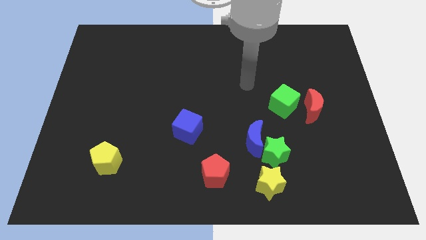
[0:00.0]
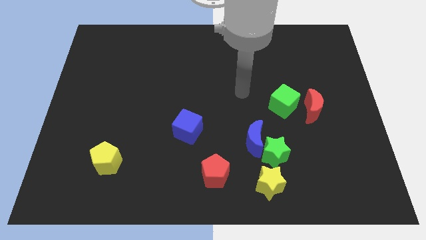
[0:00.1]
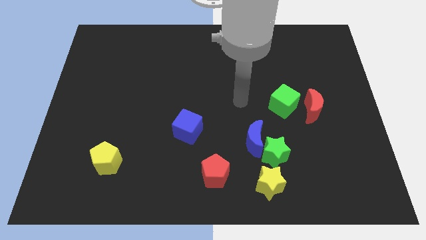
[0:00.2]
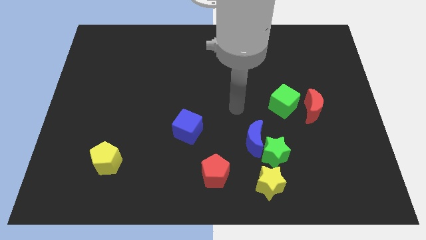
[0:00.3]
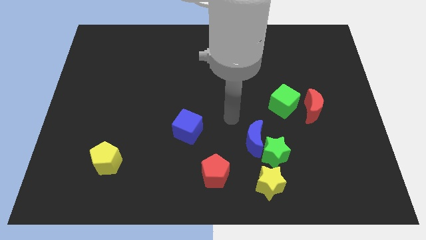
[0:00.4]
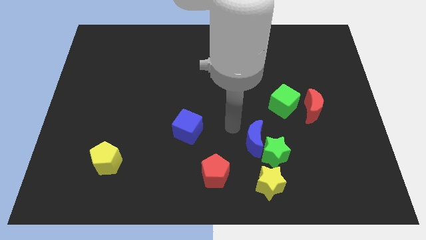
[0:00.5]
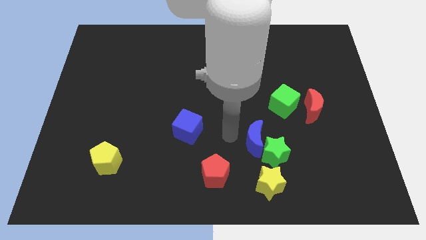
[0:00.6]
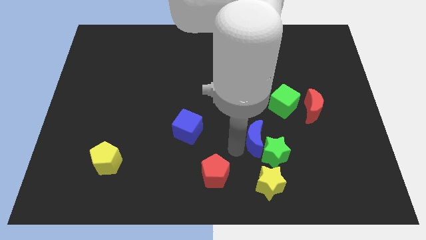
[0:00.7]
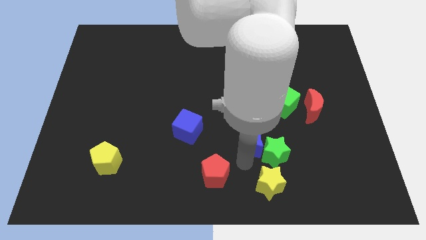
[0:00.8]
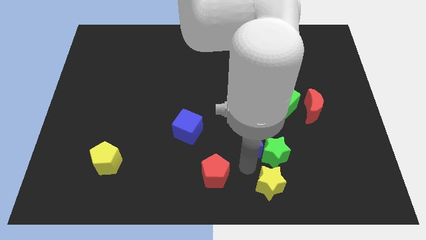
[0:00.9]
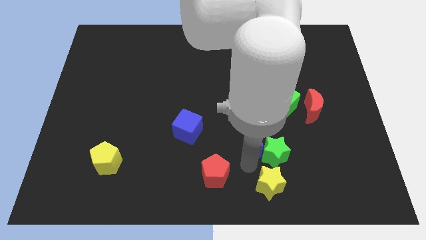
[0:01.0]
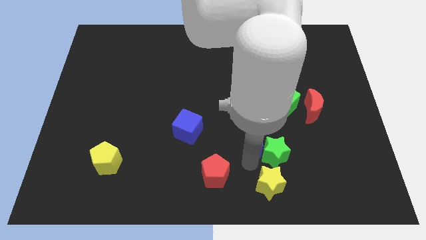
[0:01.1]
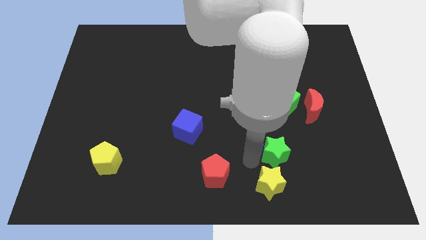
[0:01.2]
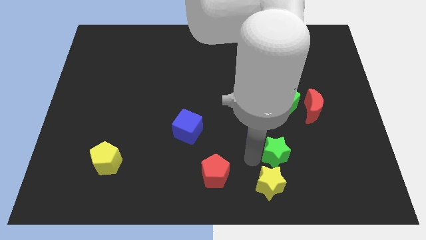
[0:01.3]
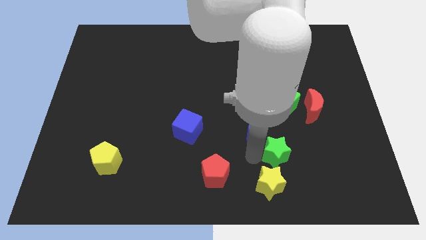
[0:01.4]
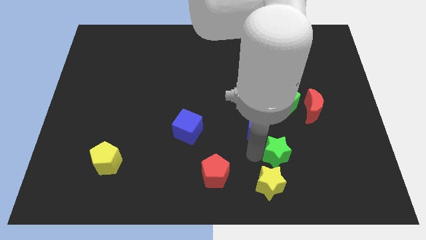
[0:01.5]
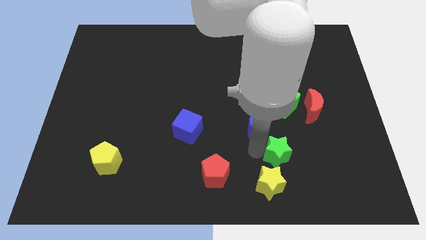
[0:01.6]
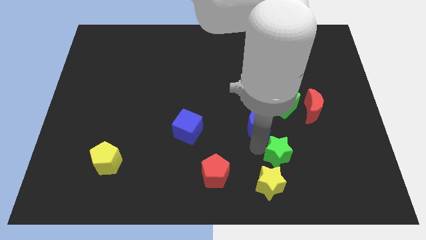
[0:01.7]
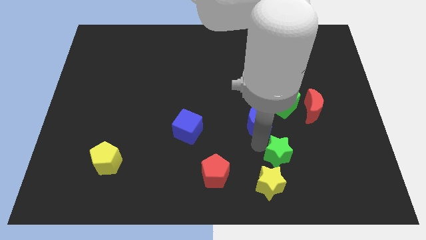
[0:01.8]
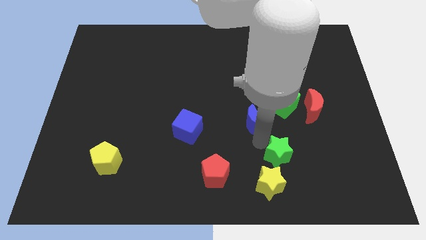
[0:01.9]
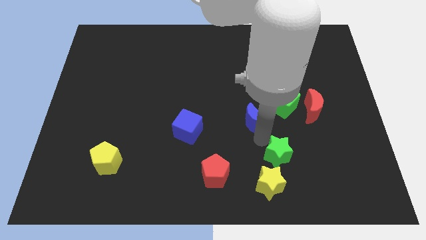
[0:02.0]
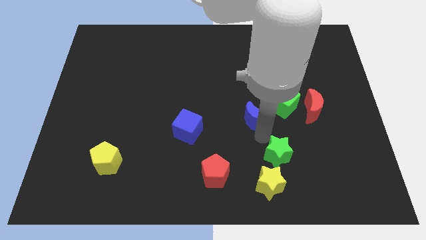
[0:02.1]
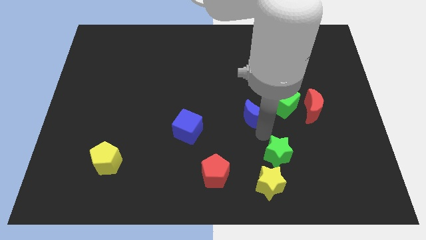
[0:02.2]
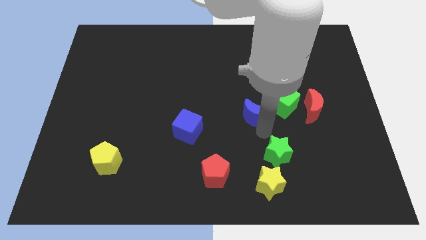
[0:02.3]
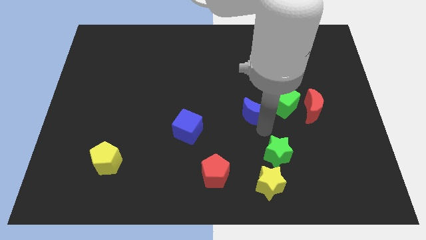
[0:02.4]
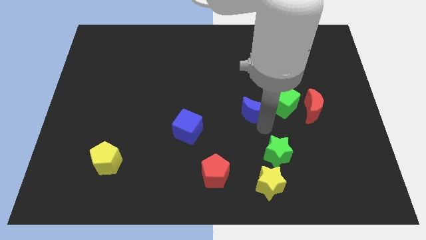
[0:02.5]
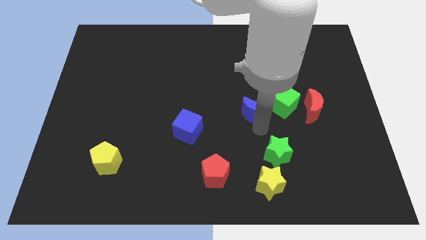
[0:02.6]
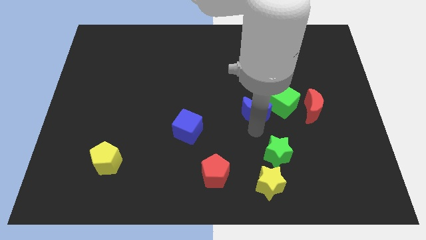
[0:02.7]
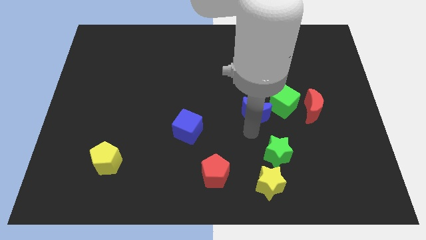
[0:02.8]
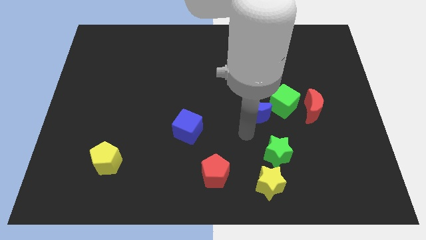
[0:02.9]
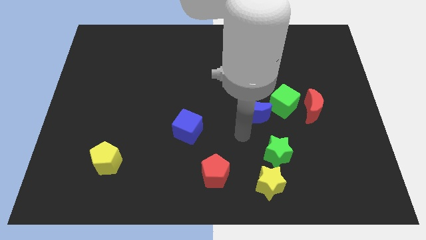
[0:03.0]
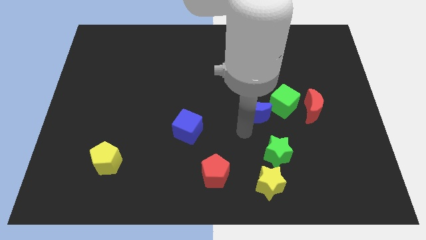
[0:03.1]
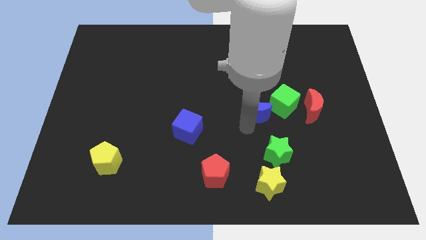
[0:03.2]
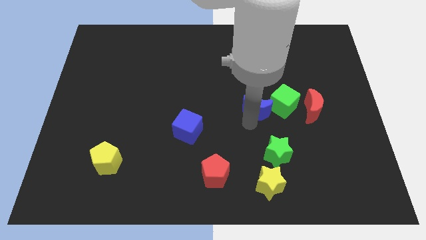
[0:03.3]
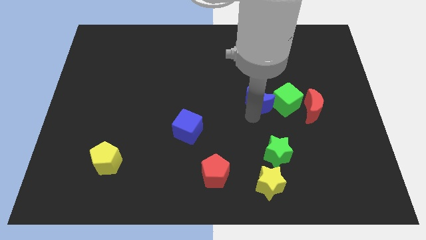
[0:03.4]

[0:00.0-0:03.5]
move the blue moon somewhat diagonally upwards and to the right

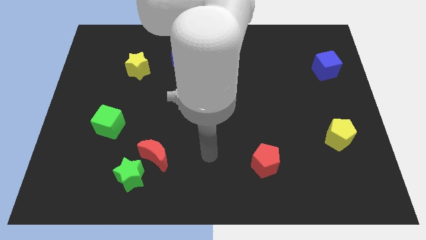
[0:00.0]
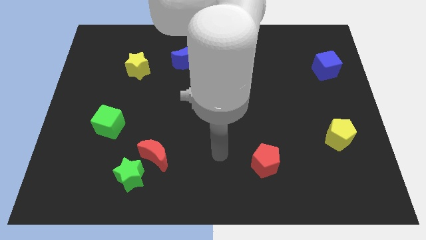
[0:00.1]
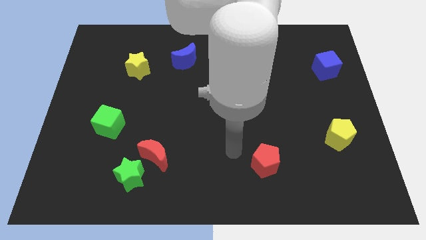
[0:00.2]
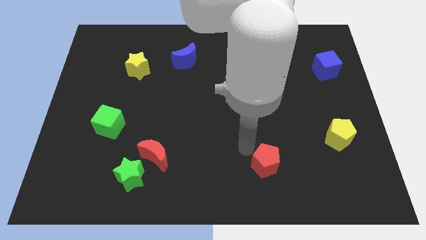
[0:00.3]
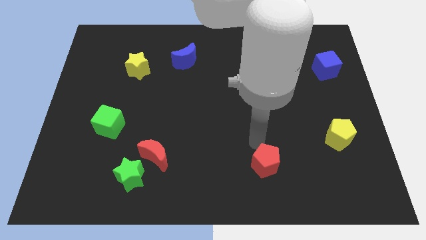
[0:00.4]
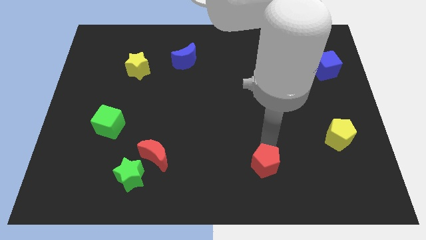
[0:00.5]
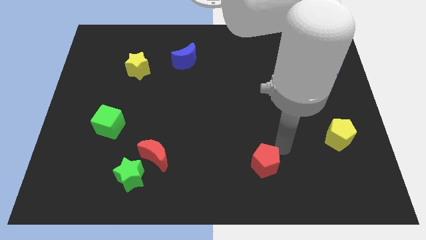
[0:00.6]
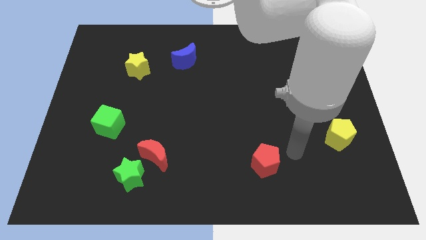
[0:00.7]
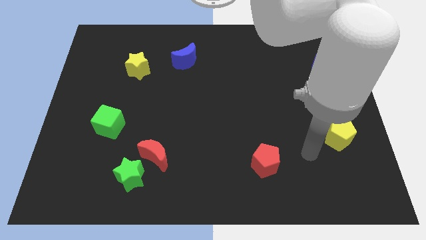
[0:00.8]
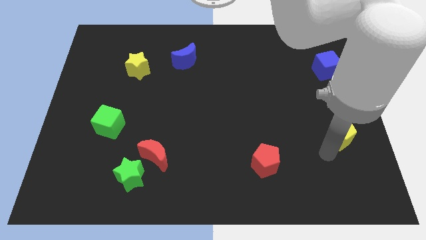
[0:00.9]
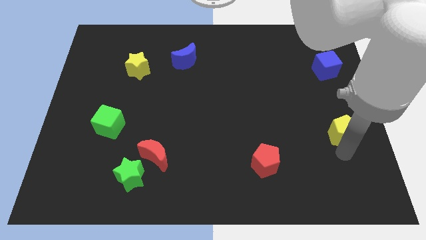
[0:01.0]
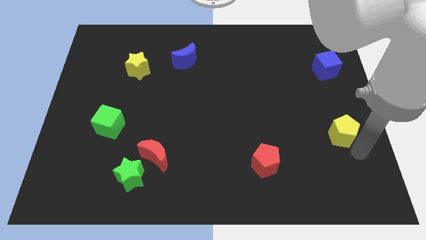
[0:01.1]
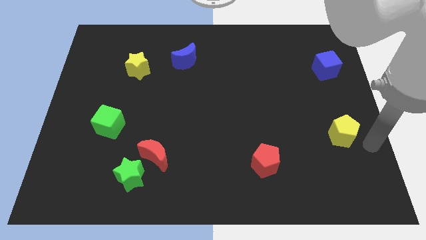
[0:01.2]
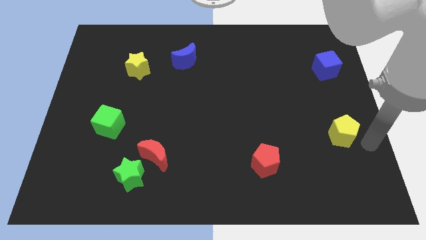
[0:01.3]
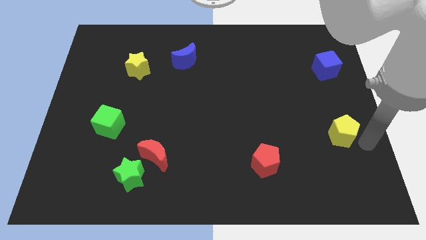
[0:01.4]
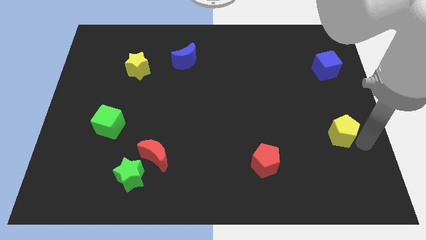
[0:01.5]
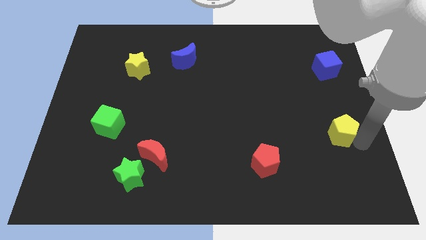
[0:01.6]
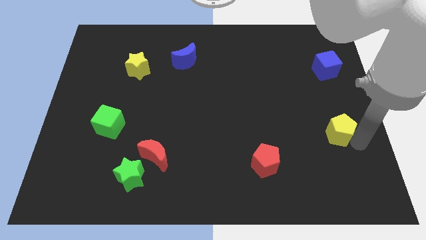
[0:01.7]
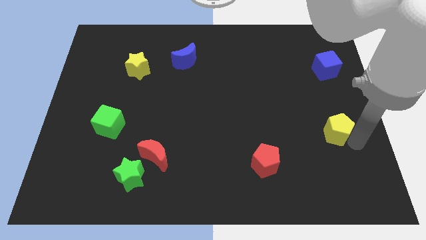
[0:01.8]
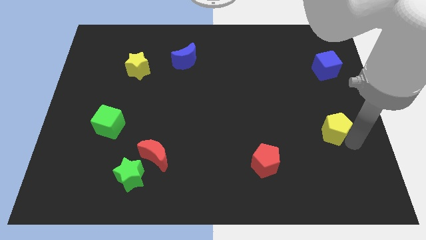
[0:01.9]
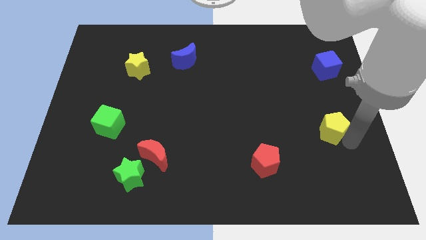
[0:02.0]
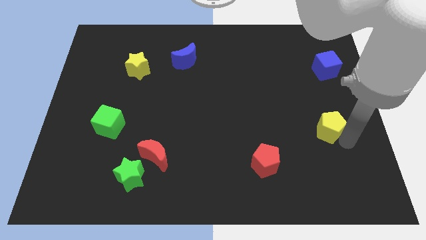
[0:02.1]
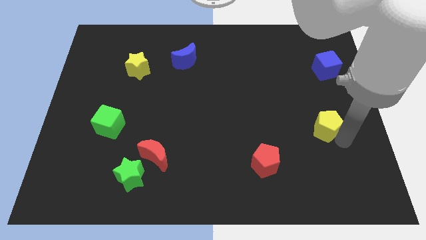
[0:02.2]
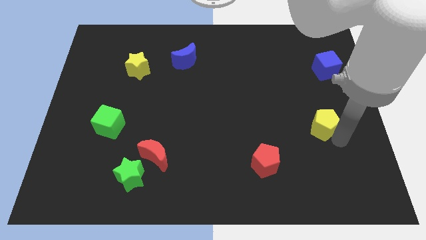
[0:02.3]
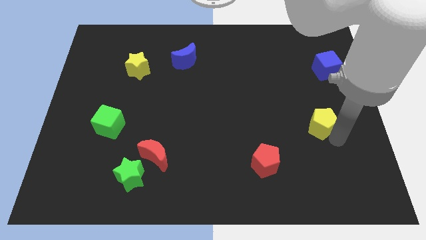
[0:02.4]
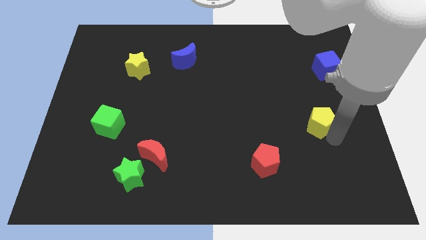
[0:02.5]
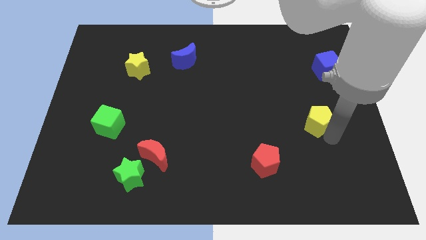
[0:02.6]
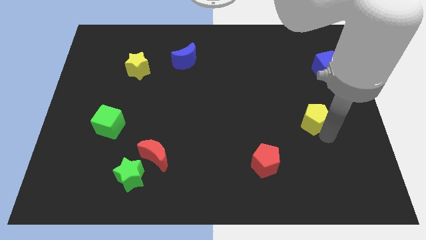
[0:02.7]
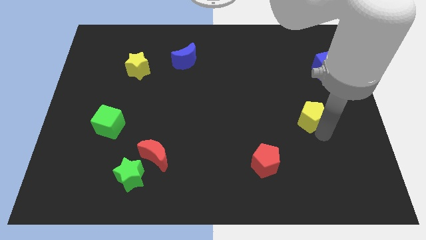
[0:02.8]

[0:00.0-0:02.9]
move the yellow pentagon up and left diagonally somewhat

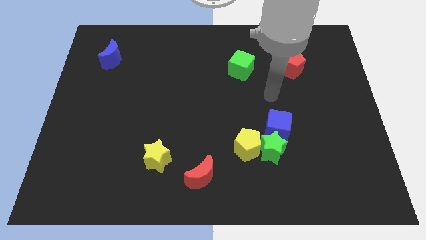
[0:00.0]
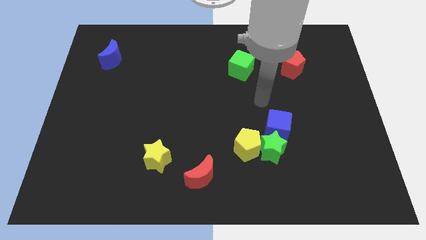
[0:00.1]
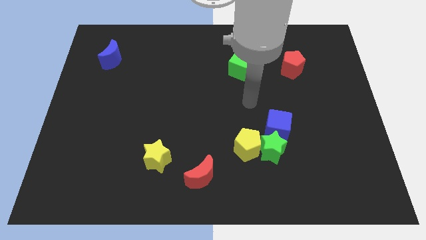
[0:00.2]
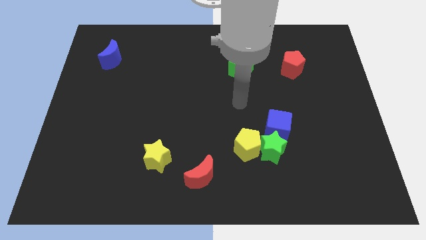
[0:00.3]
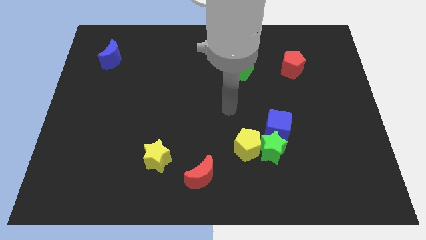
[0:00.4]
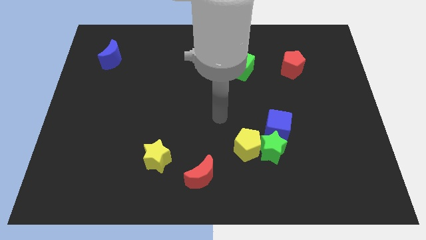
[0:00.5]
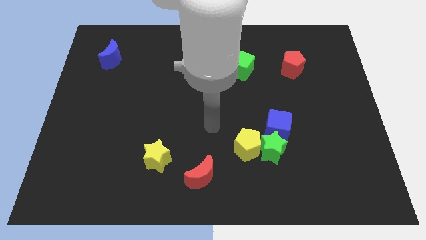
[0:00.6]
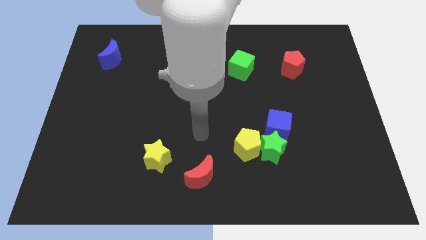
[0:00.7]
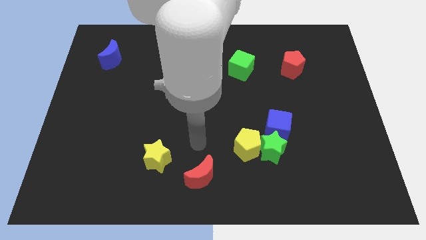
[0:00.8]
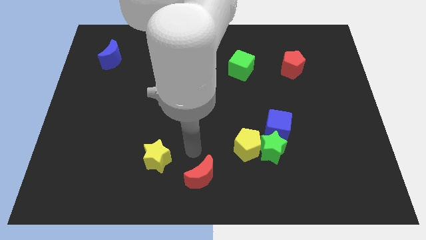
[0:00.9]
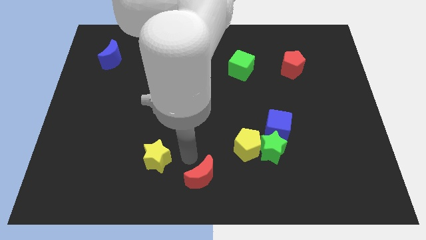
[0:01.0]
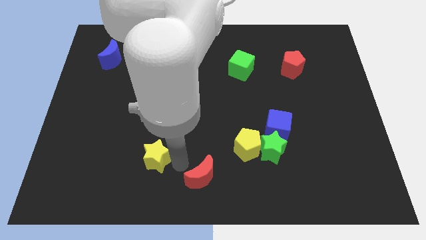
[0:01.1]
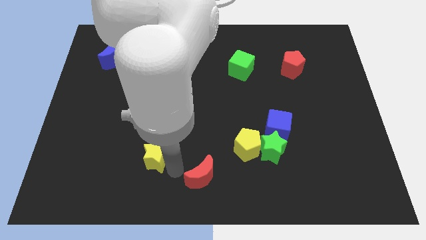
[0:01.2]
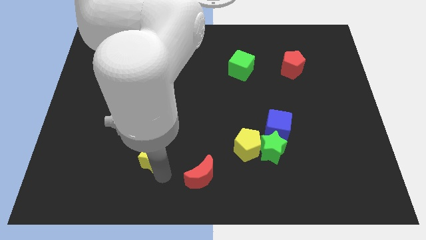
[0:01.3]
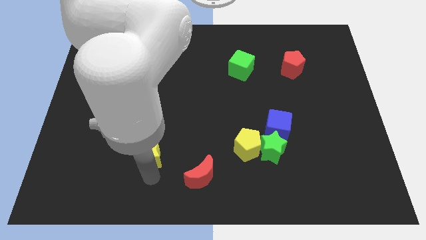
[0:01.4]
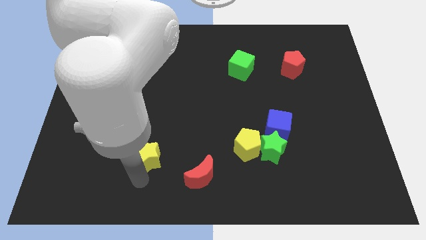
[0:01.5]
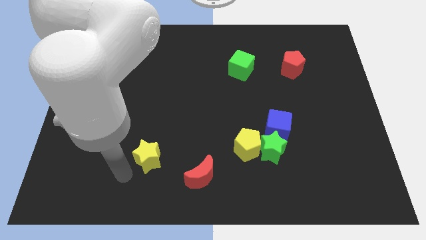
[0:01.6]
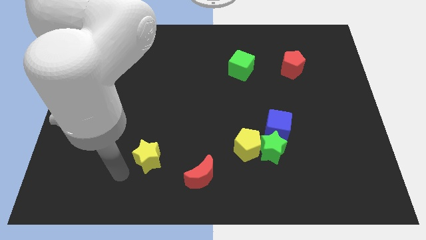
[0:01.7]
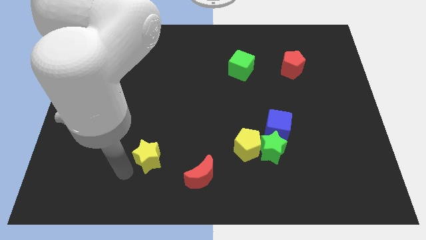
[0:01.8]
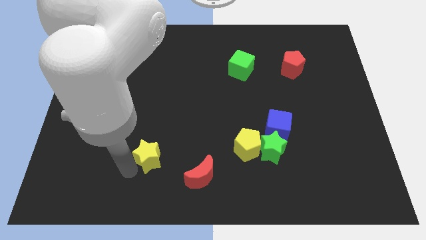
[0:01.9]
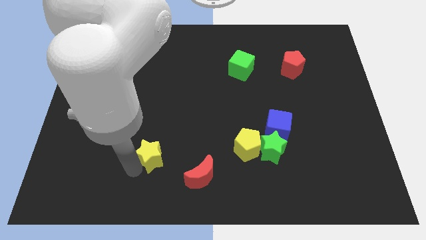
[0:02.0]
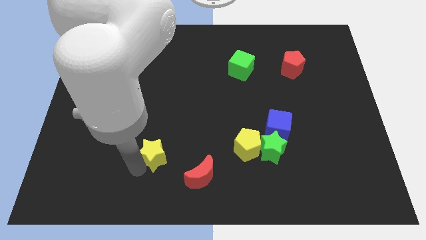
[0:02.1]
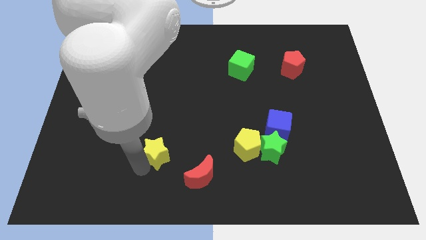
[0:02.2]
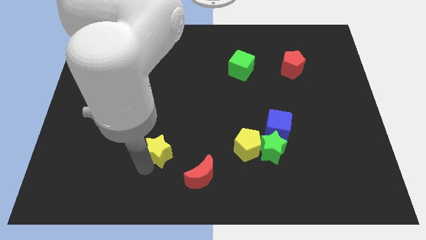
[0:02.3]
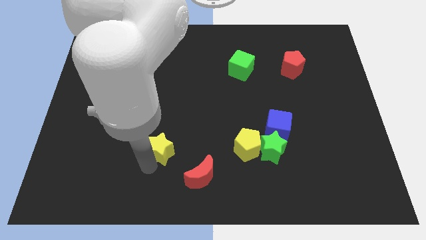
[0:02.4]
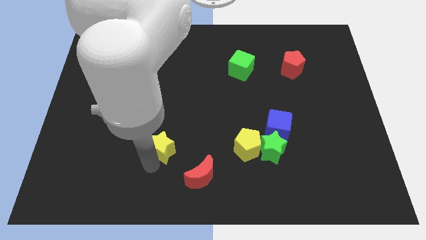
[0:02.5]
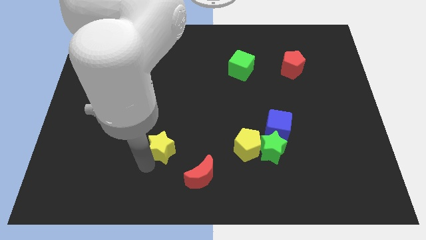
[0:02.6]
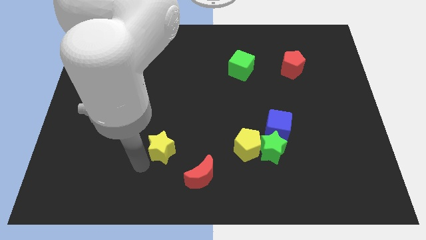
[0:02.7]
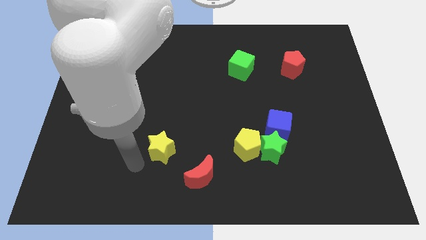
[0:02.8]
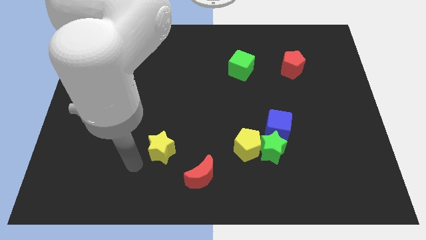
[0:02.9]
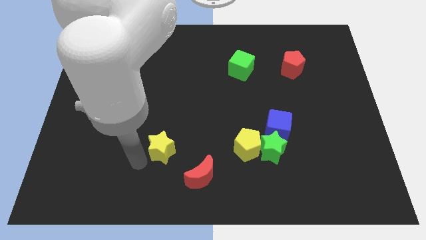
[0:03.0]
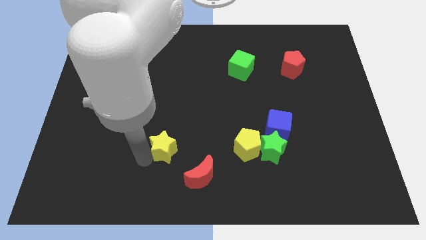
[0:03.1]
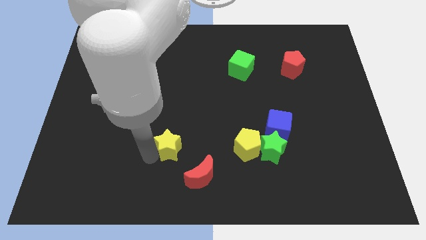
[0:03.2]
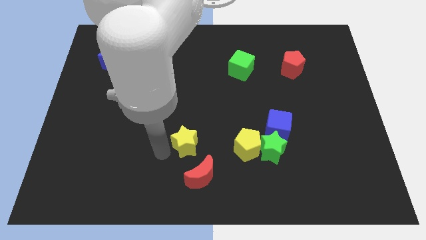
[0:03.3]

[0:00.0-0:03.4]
slide the yellow star somewhat upwards and then right
